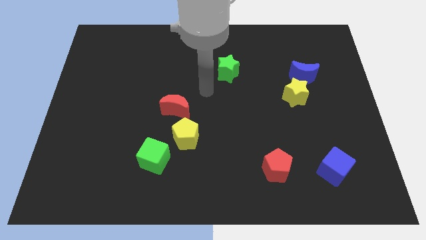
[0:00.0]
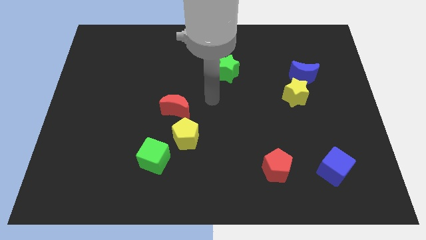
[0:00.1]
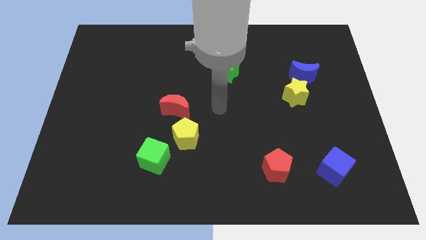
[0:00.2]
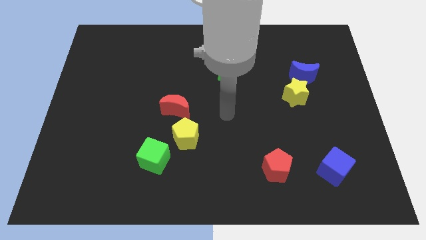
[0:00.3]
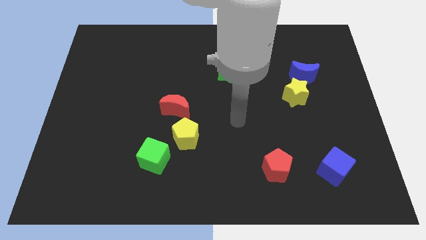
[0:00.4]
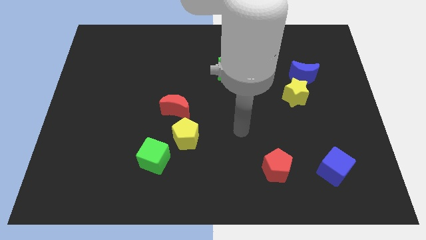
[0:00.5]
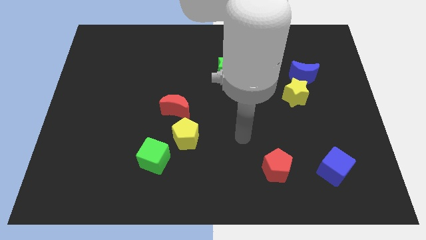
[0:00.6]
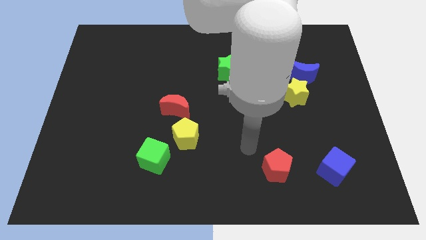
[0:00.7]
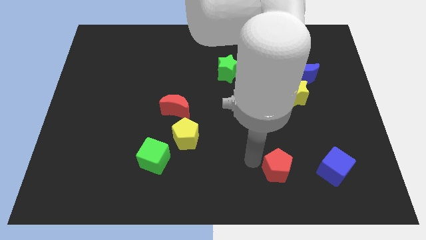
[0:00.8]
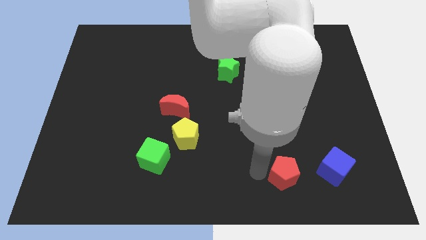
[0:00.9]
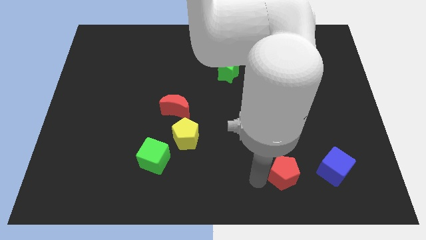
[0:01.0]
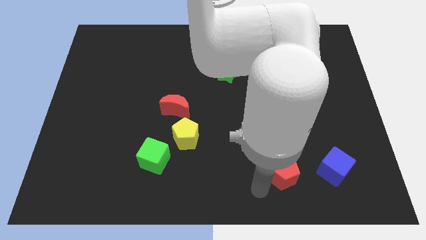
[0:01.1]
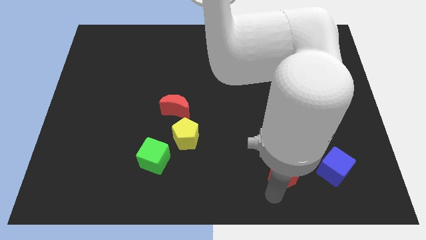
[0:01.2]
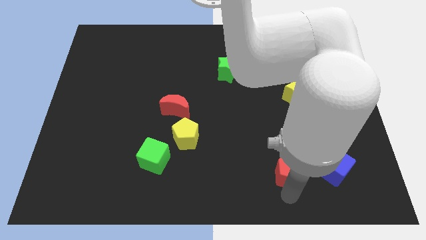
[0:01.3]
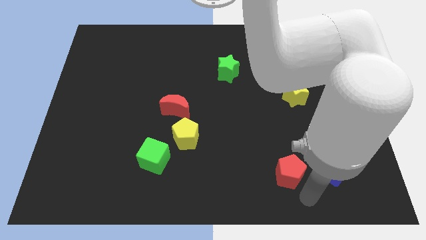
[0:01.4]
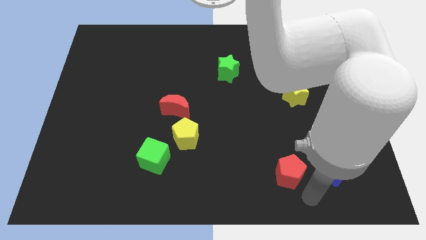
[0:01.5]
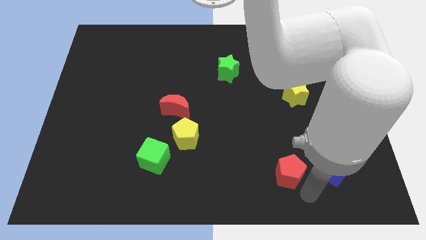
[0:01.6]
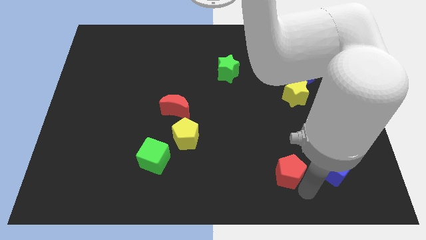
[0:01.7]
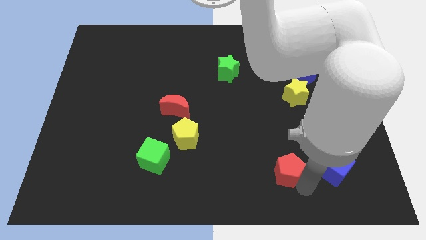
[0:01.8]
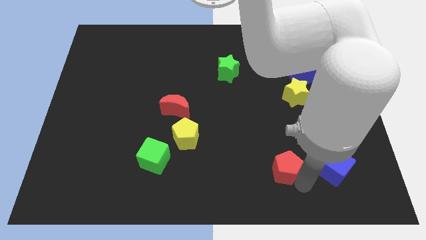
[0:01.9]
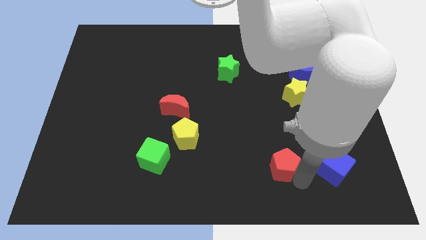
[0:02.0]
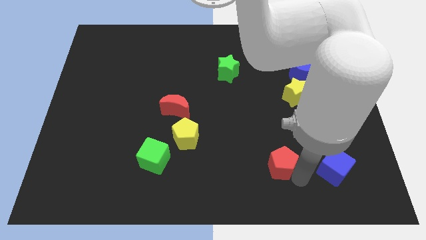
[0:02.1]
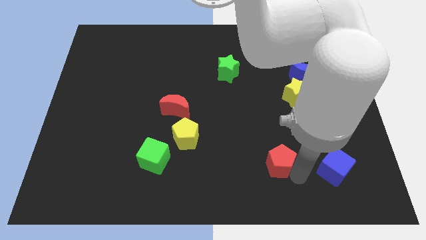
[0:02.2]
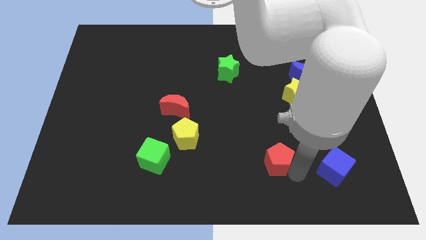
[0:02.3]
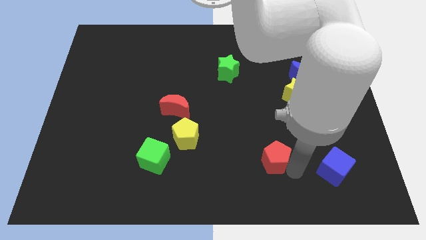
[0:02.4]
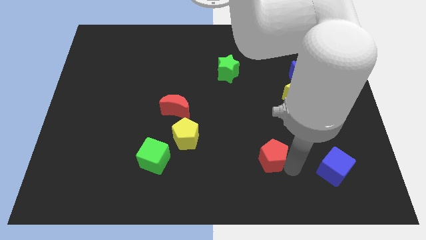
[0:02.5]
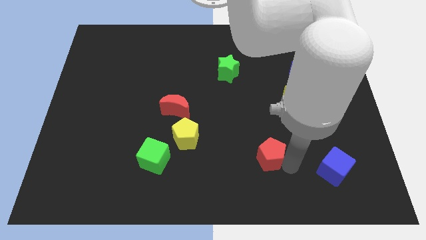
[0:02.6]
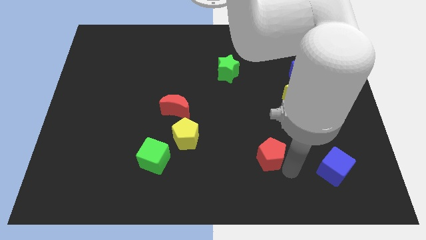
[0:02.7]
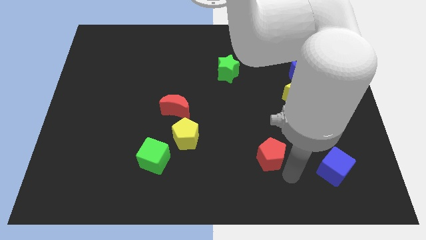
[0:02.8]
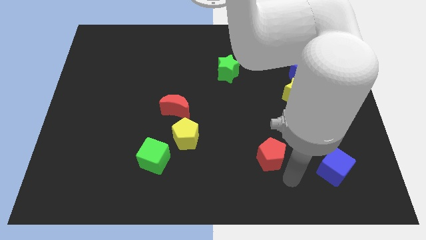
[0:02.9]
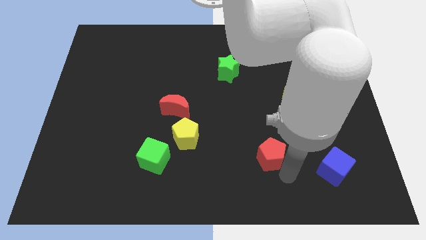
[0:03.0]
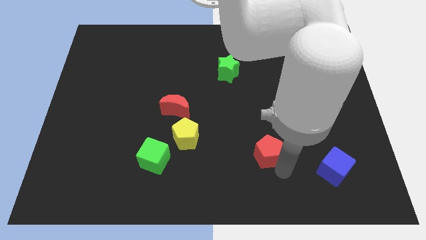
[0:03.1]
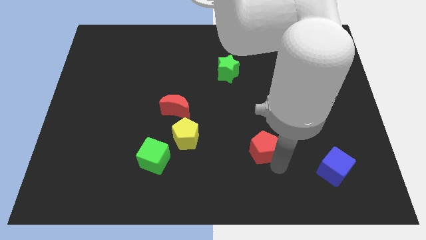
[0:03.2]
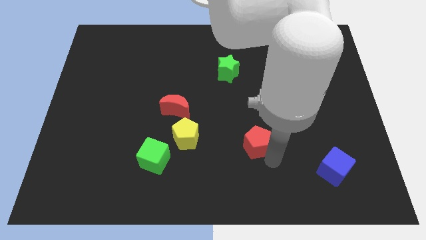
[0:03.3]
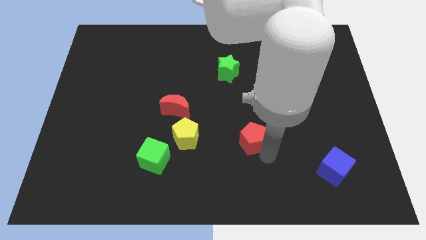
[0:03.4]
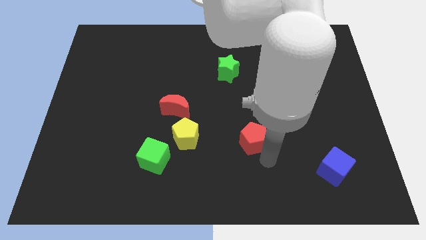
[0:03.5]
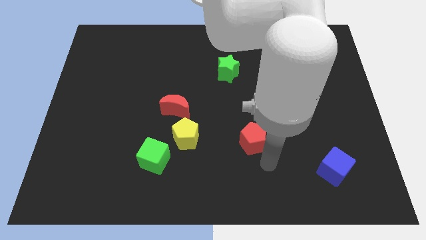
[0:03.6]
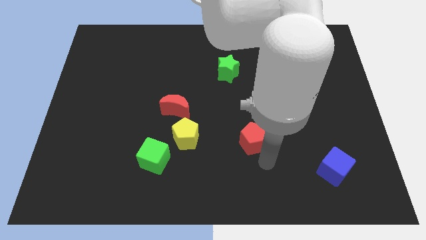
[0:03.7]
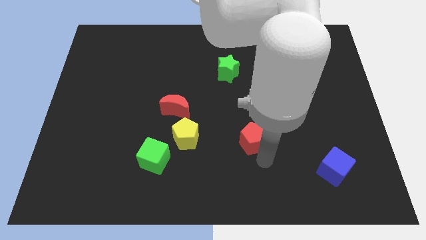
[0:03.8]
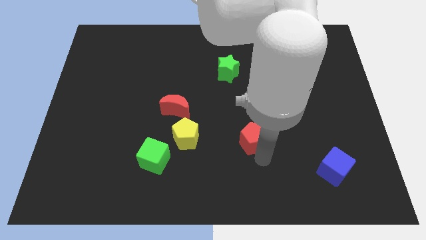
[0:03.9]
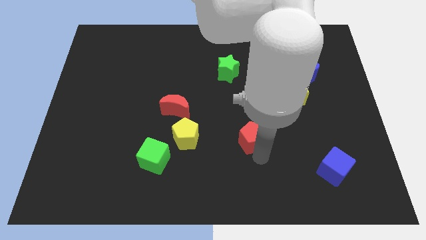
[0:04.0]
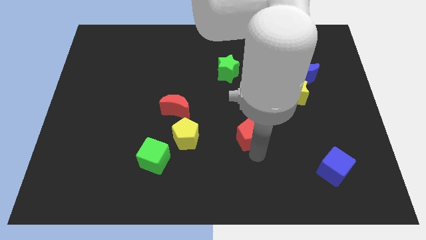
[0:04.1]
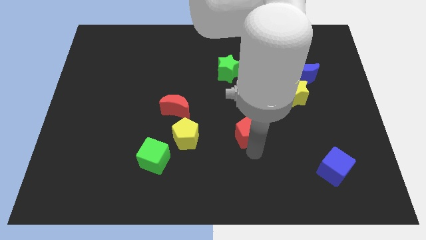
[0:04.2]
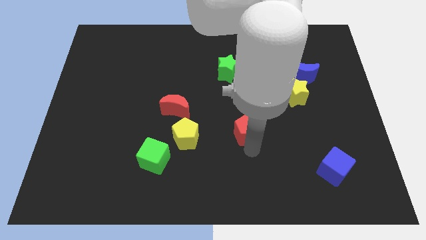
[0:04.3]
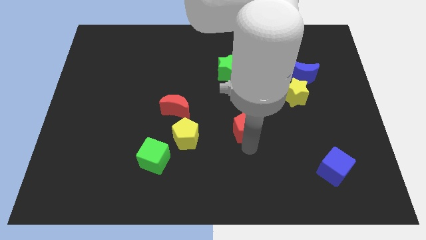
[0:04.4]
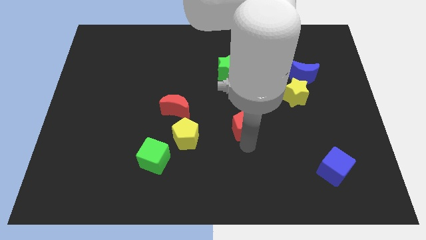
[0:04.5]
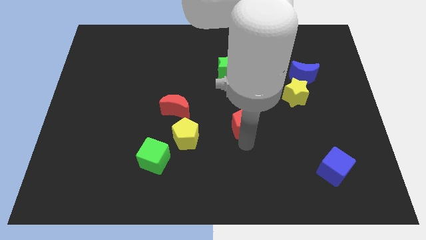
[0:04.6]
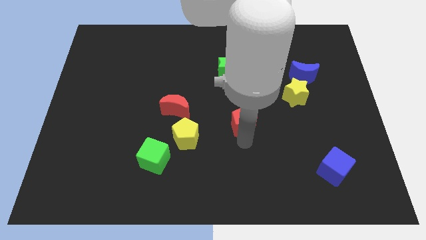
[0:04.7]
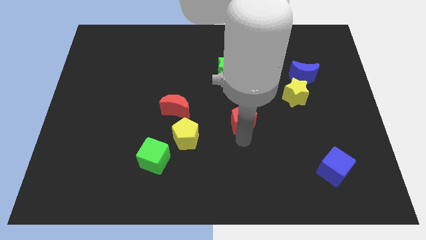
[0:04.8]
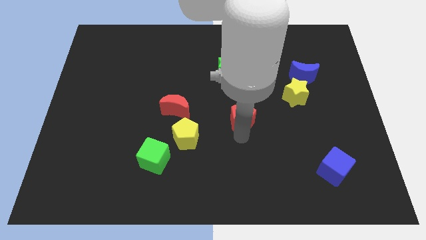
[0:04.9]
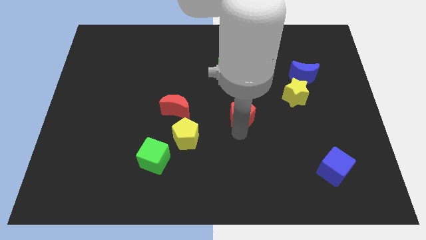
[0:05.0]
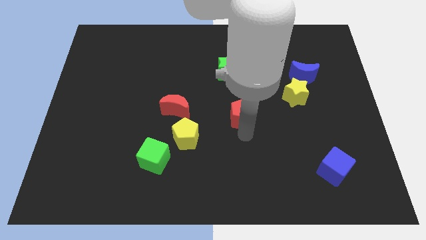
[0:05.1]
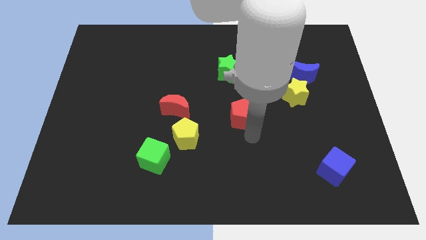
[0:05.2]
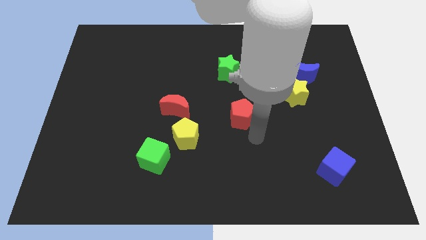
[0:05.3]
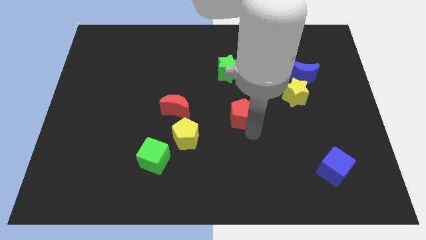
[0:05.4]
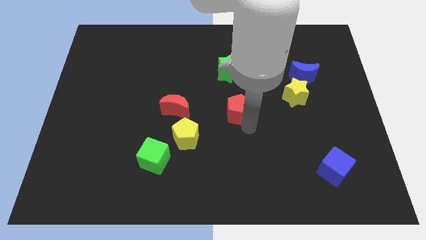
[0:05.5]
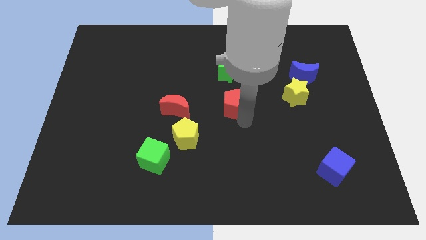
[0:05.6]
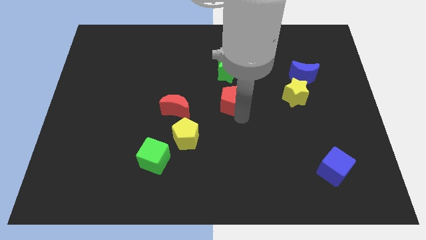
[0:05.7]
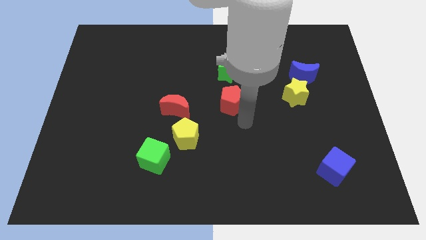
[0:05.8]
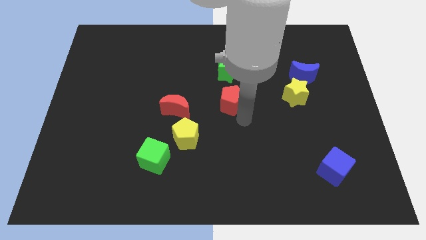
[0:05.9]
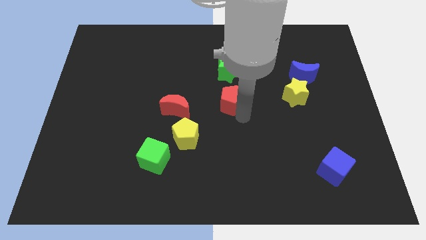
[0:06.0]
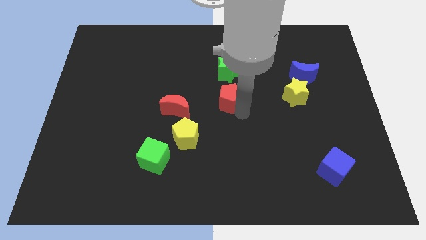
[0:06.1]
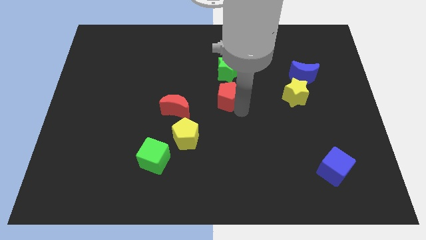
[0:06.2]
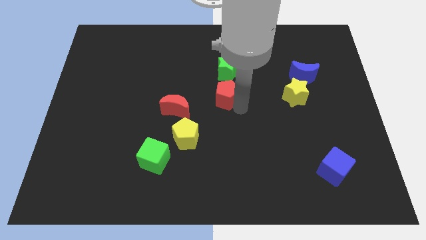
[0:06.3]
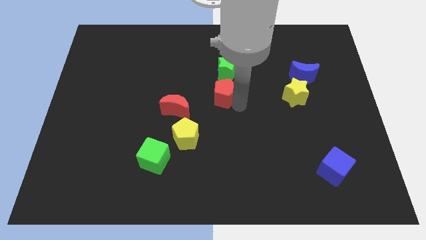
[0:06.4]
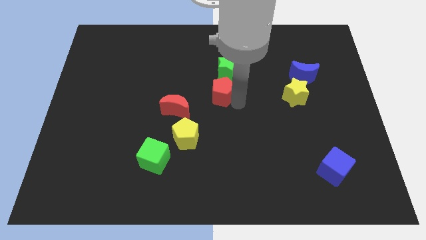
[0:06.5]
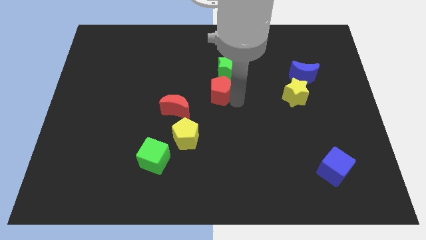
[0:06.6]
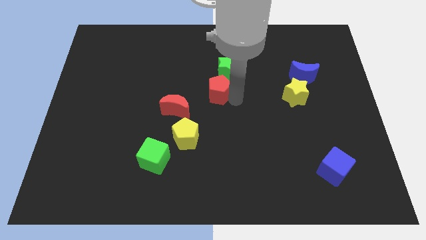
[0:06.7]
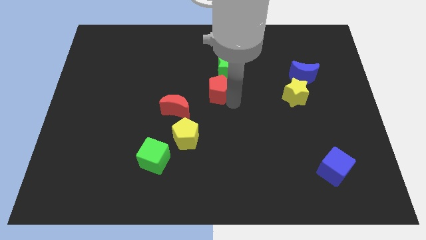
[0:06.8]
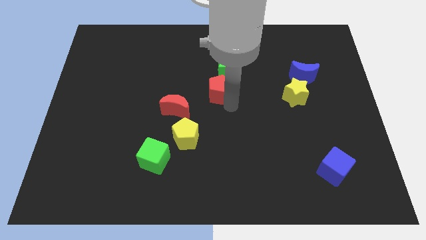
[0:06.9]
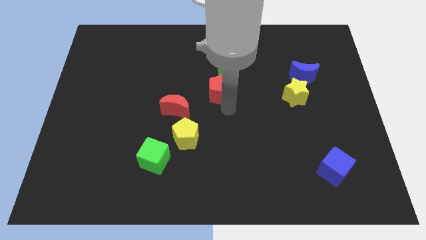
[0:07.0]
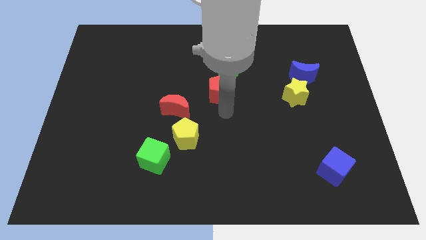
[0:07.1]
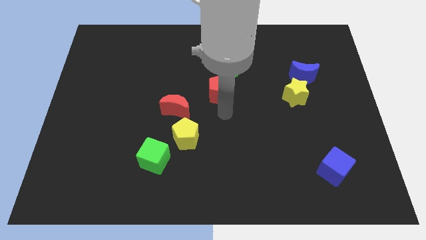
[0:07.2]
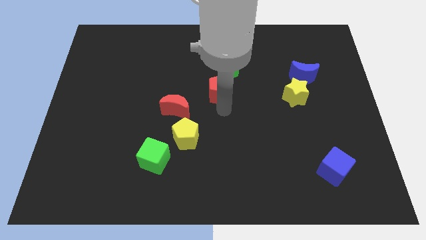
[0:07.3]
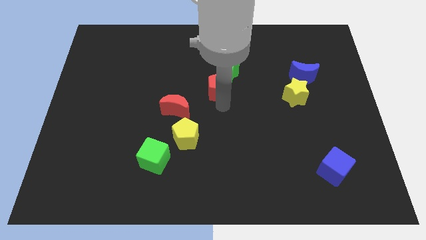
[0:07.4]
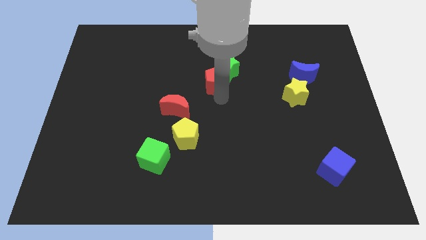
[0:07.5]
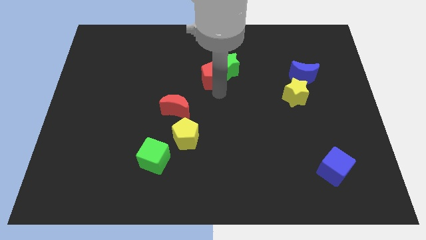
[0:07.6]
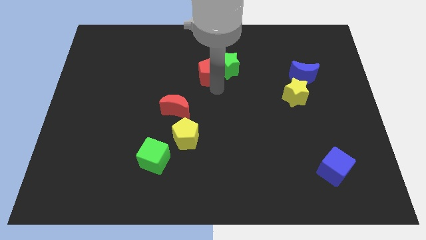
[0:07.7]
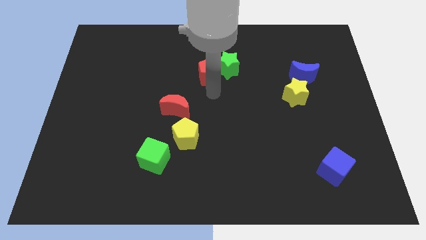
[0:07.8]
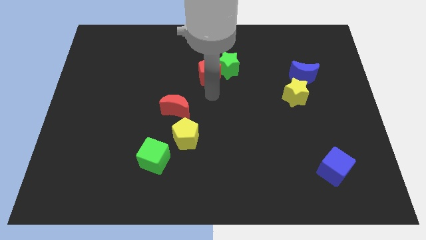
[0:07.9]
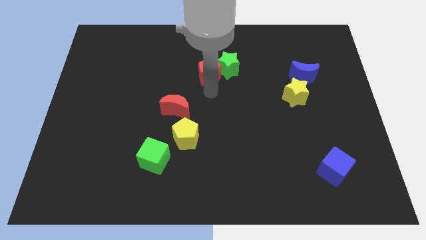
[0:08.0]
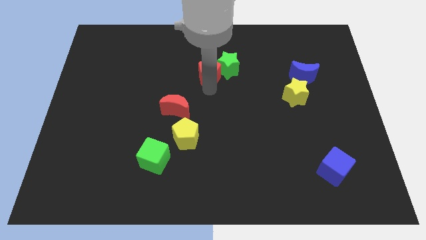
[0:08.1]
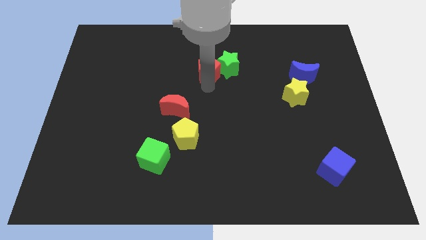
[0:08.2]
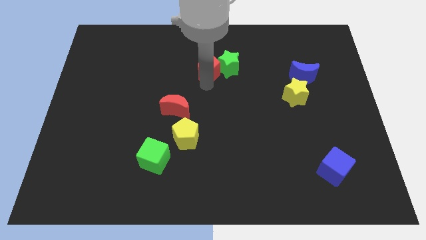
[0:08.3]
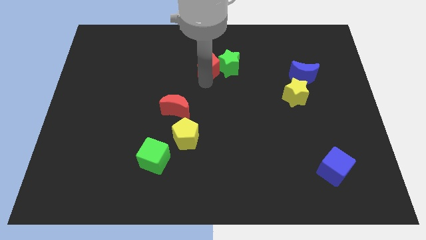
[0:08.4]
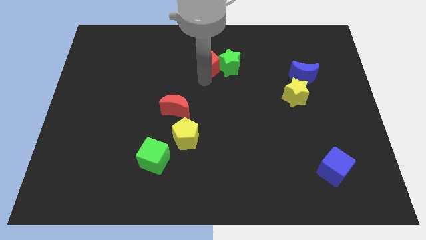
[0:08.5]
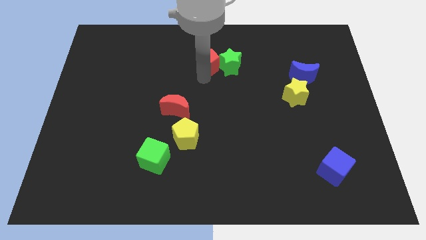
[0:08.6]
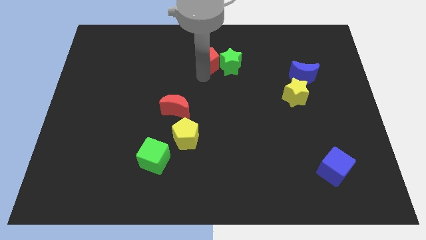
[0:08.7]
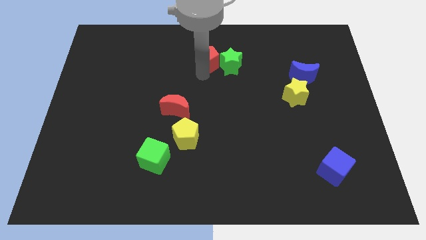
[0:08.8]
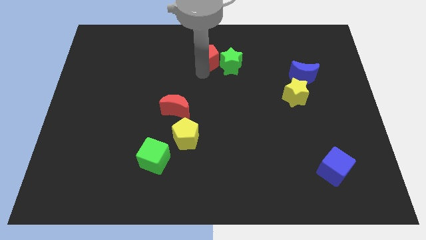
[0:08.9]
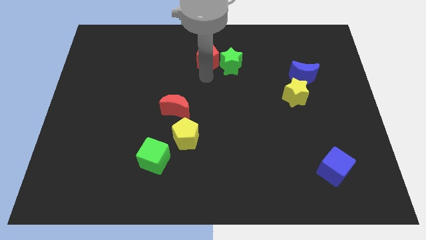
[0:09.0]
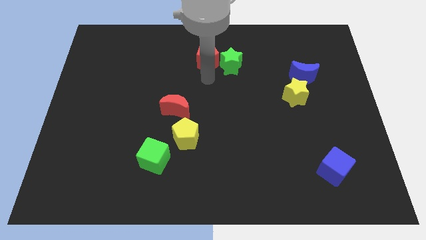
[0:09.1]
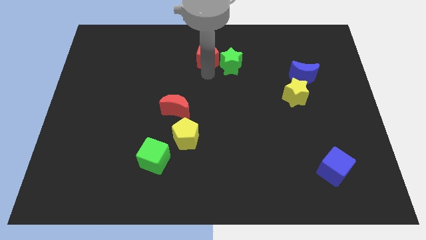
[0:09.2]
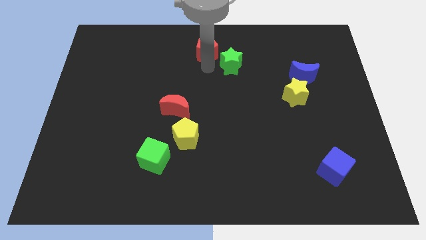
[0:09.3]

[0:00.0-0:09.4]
move the red pentagon to the top side
